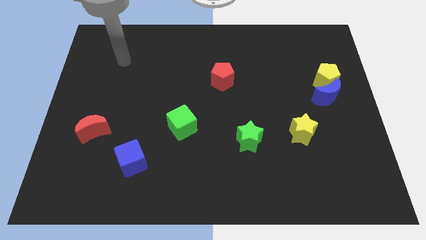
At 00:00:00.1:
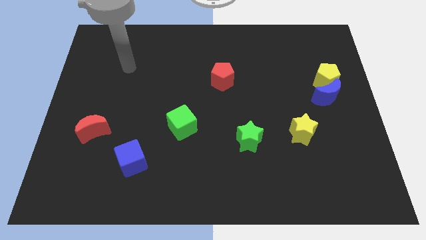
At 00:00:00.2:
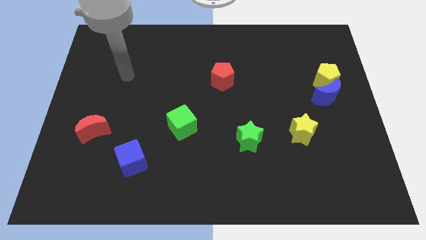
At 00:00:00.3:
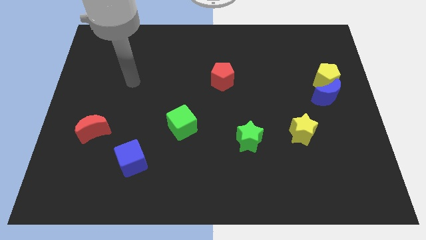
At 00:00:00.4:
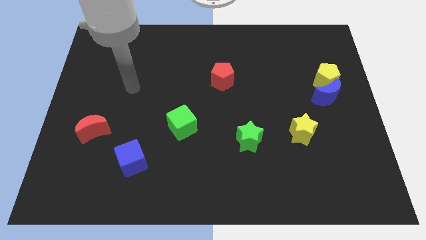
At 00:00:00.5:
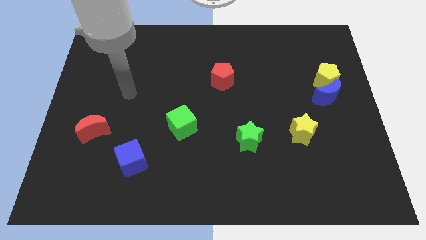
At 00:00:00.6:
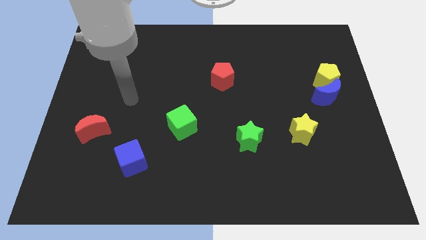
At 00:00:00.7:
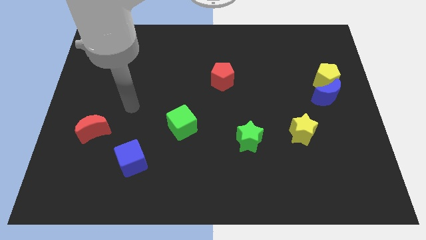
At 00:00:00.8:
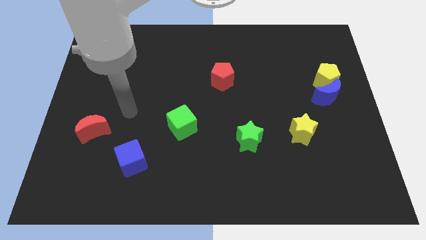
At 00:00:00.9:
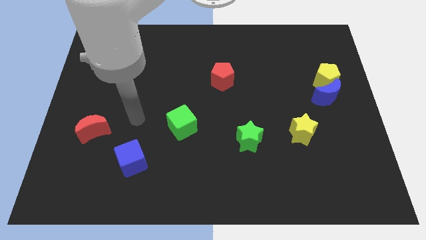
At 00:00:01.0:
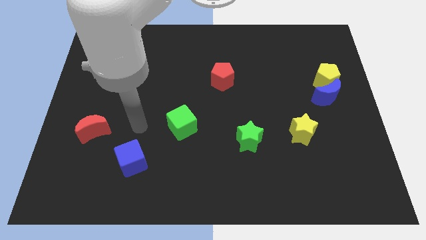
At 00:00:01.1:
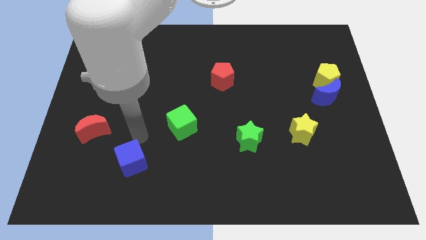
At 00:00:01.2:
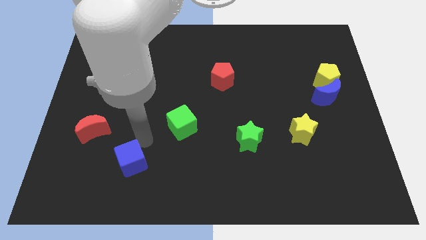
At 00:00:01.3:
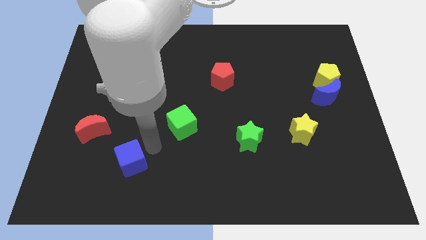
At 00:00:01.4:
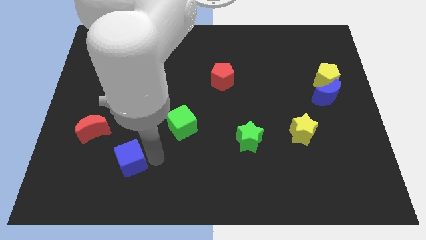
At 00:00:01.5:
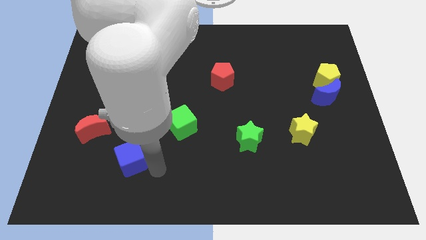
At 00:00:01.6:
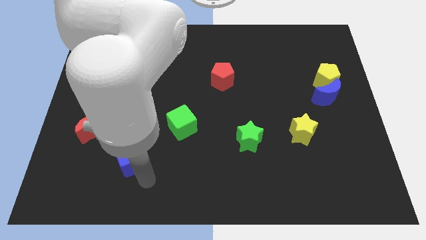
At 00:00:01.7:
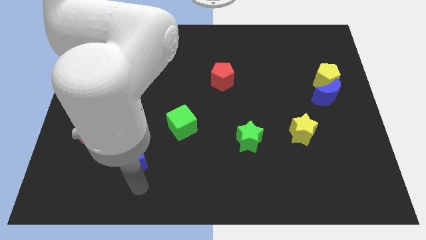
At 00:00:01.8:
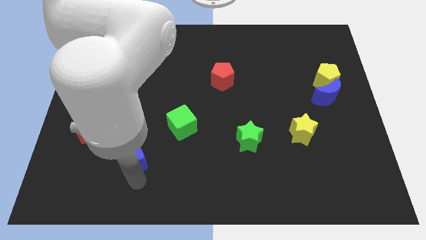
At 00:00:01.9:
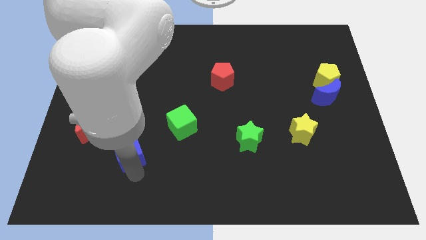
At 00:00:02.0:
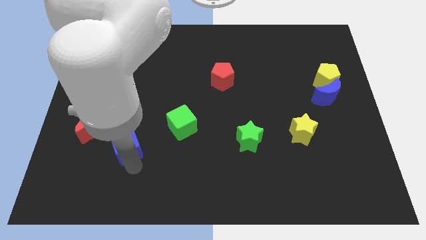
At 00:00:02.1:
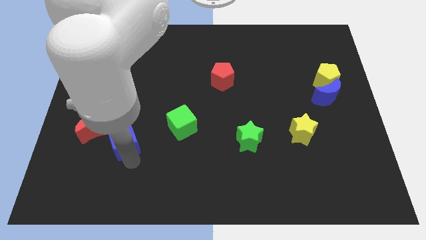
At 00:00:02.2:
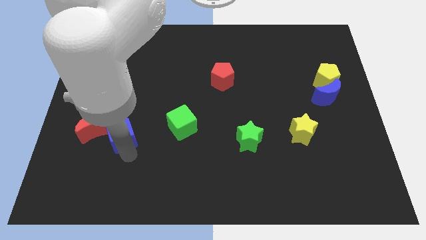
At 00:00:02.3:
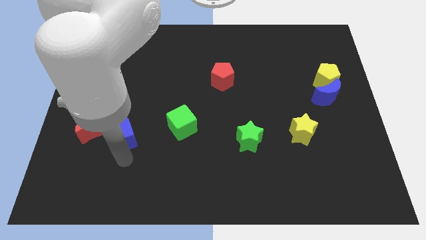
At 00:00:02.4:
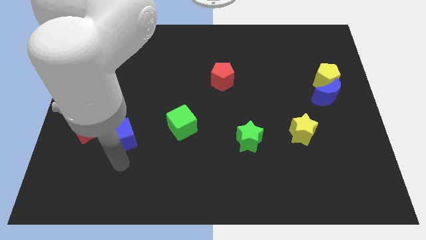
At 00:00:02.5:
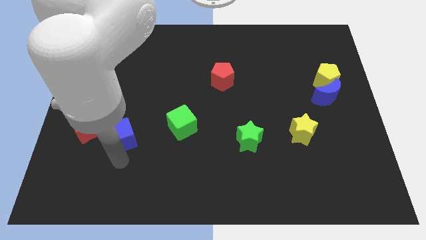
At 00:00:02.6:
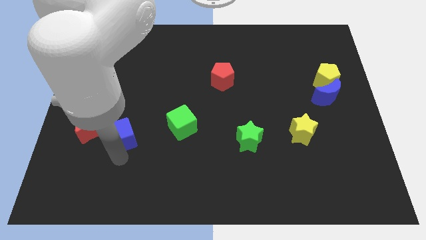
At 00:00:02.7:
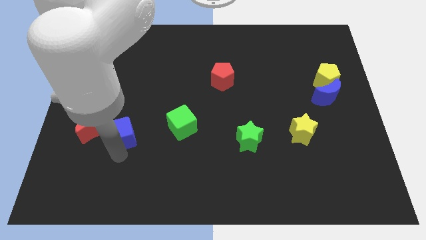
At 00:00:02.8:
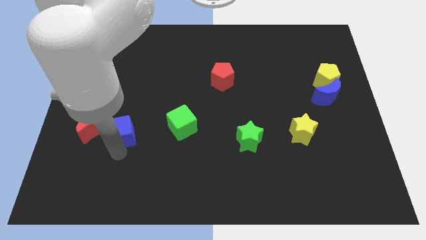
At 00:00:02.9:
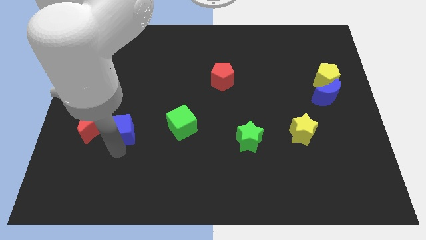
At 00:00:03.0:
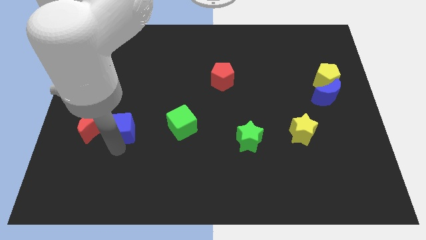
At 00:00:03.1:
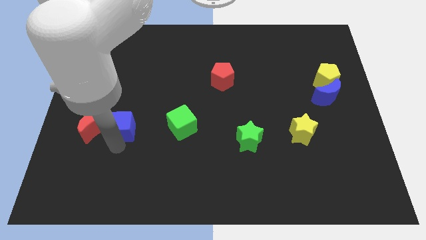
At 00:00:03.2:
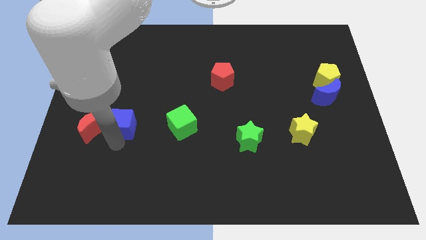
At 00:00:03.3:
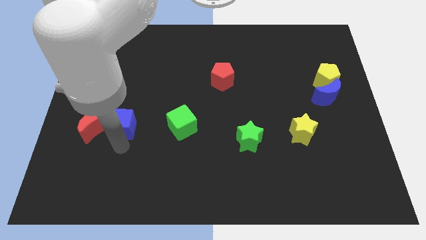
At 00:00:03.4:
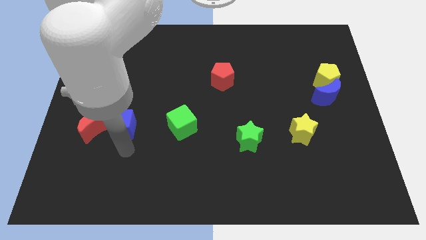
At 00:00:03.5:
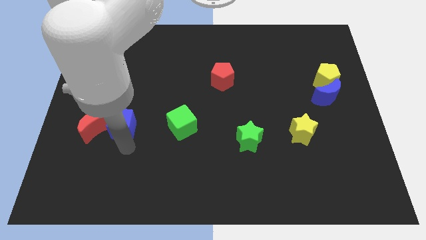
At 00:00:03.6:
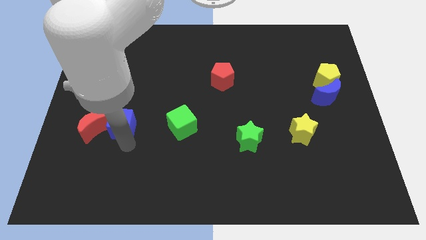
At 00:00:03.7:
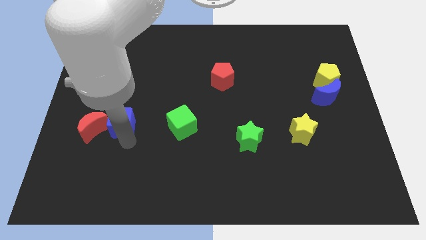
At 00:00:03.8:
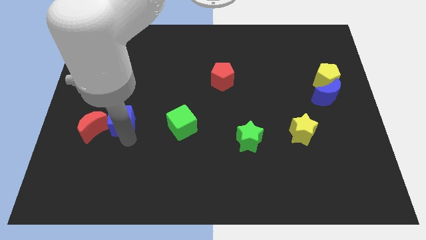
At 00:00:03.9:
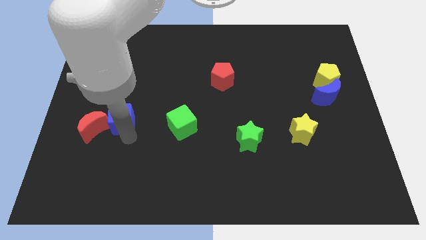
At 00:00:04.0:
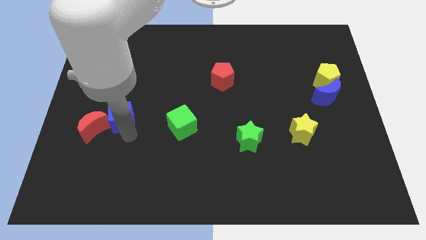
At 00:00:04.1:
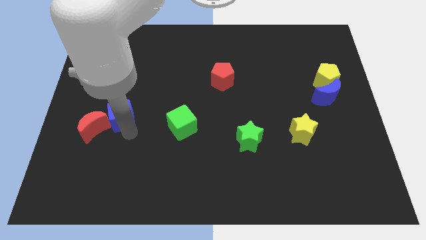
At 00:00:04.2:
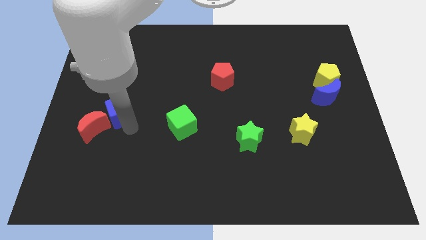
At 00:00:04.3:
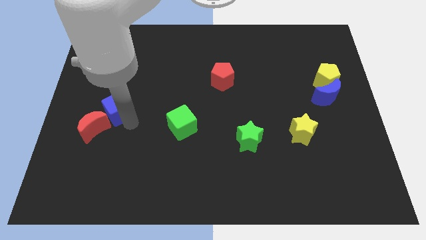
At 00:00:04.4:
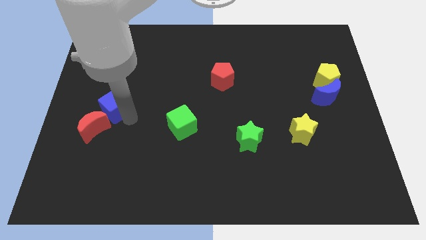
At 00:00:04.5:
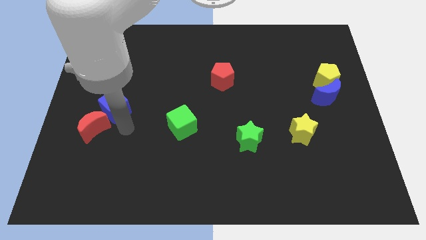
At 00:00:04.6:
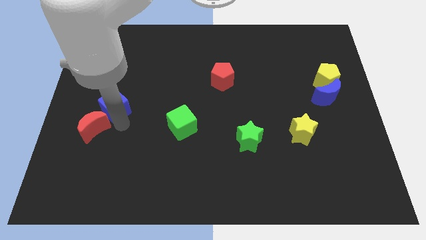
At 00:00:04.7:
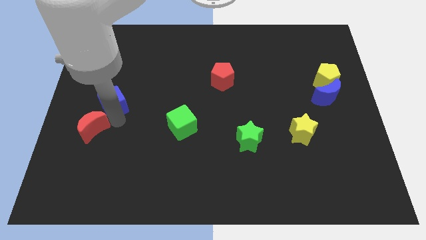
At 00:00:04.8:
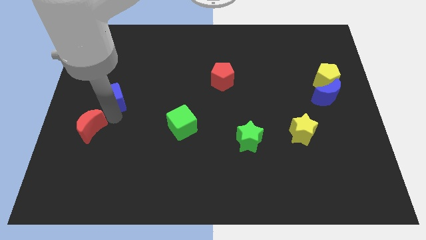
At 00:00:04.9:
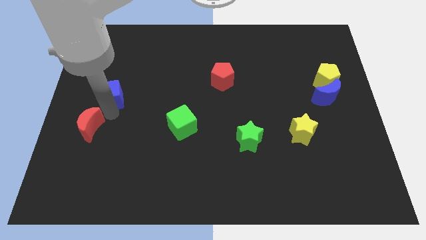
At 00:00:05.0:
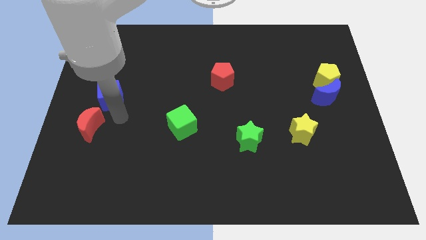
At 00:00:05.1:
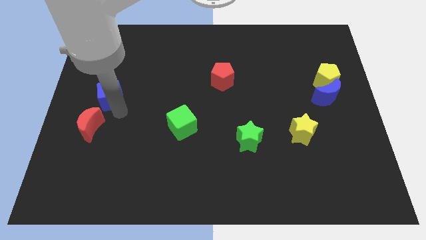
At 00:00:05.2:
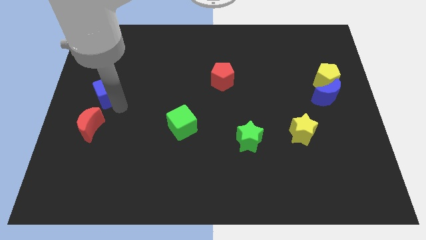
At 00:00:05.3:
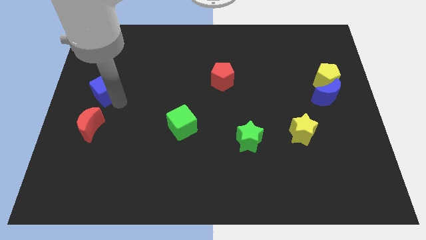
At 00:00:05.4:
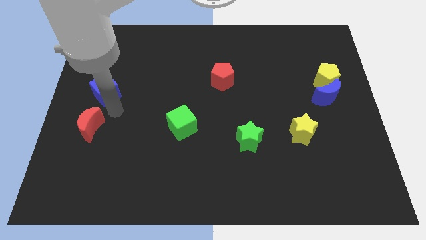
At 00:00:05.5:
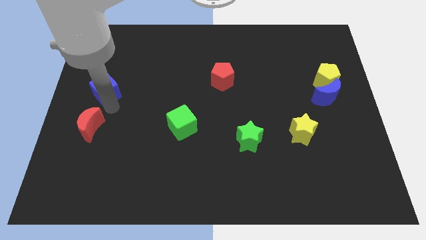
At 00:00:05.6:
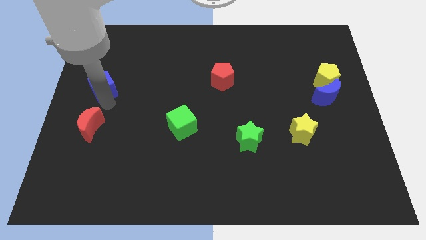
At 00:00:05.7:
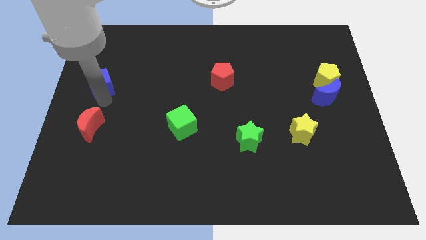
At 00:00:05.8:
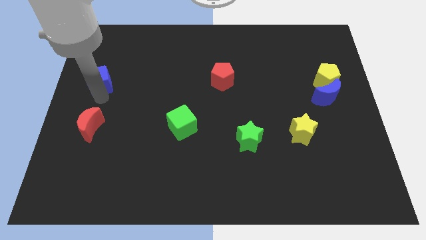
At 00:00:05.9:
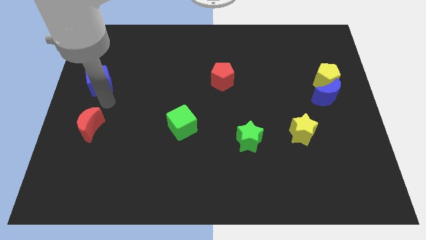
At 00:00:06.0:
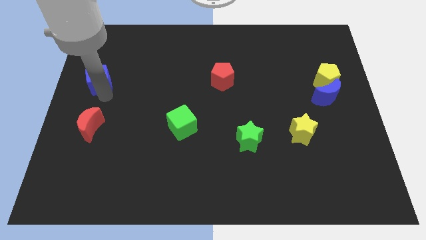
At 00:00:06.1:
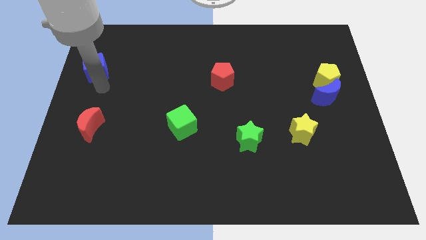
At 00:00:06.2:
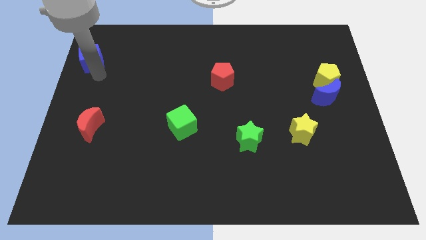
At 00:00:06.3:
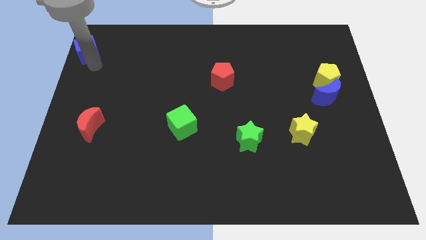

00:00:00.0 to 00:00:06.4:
move the blue cube to the top left corner

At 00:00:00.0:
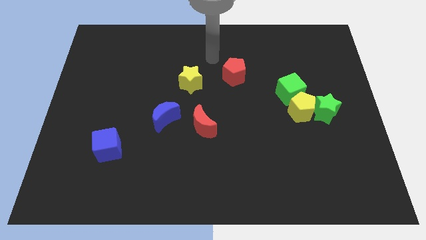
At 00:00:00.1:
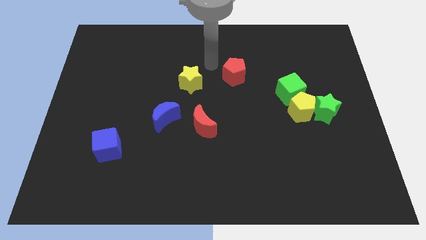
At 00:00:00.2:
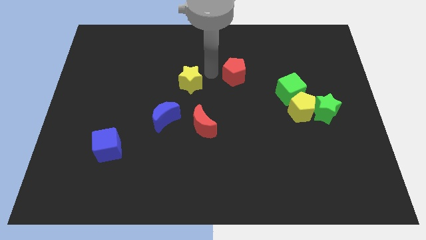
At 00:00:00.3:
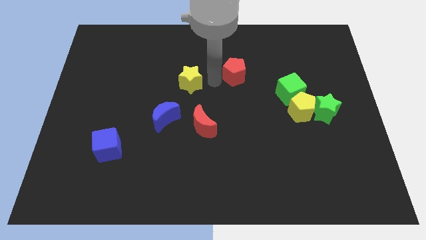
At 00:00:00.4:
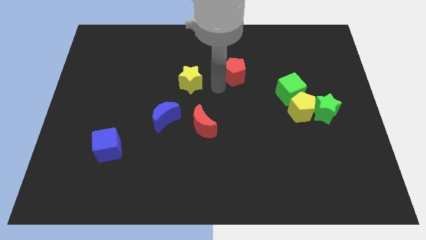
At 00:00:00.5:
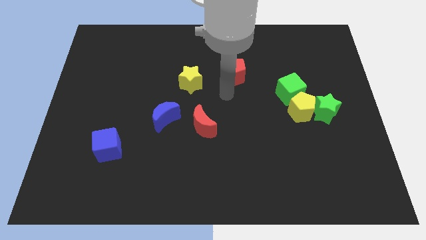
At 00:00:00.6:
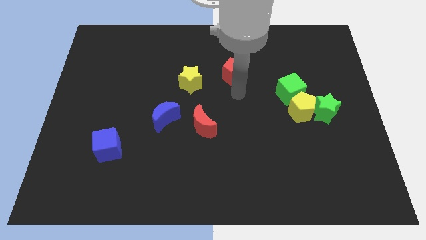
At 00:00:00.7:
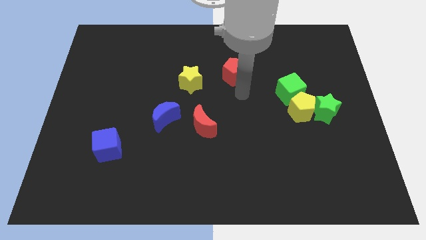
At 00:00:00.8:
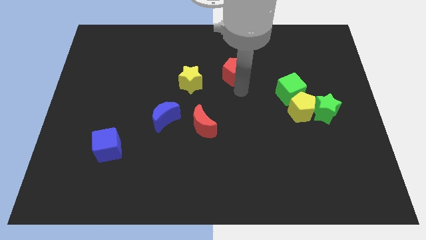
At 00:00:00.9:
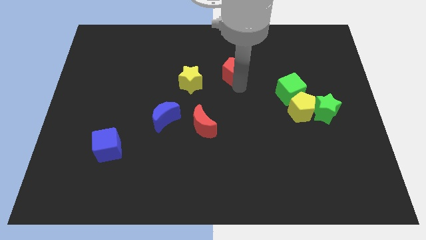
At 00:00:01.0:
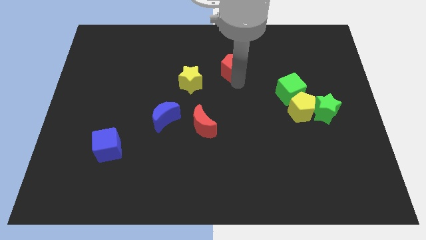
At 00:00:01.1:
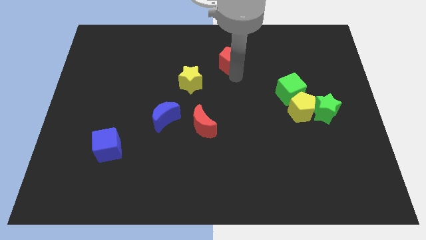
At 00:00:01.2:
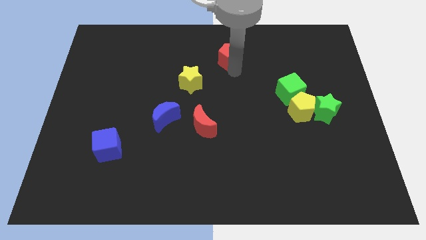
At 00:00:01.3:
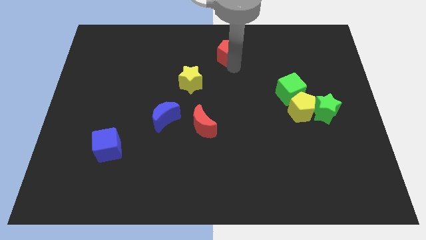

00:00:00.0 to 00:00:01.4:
slide the red pentagon to the top side
